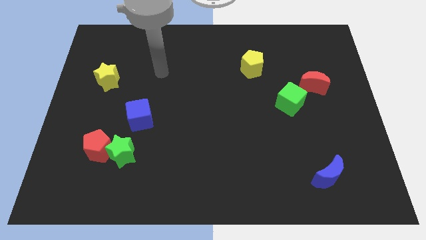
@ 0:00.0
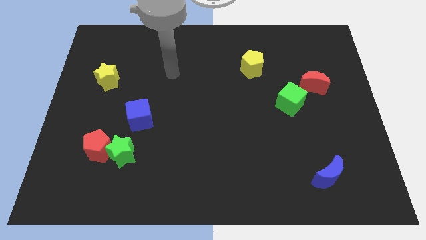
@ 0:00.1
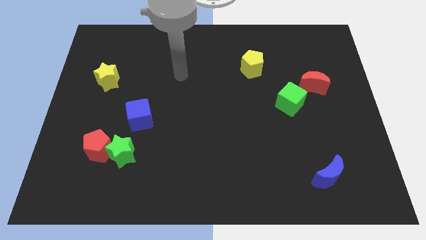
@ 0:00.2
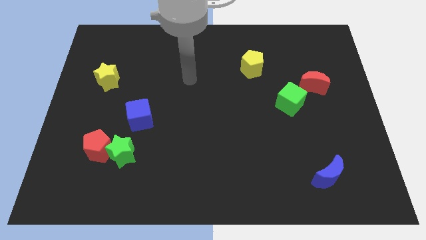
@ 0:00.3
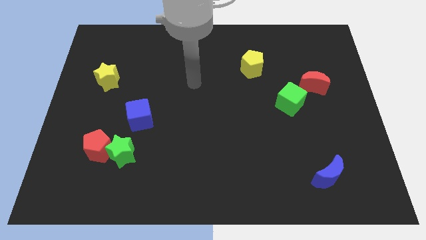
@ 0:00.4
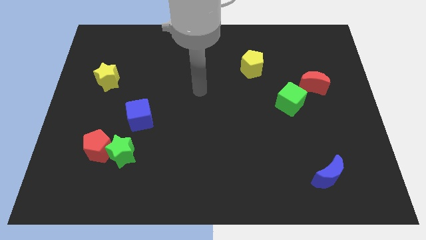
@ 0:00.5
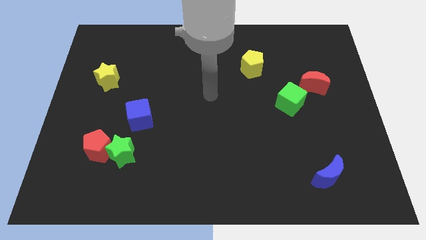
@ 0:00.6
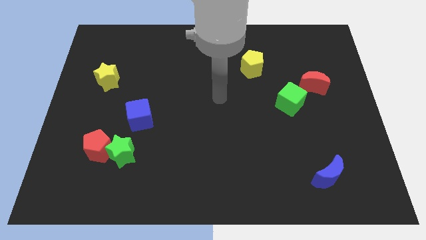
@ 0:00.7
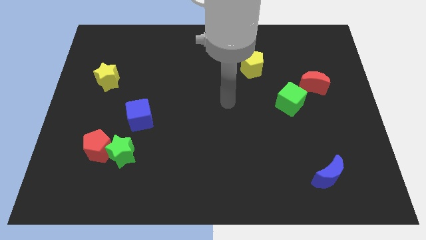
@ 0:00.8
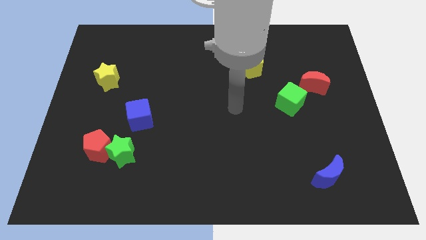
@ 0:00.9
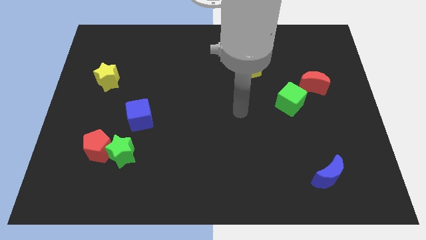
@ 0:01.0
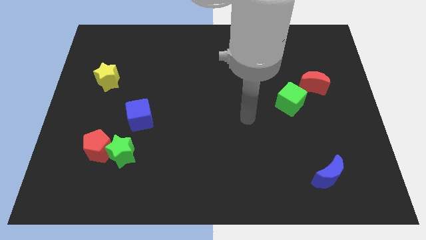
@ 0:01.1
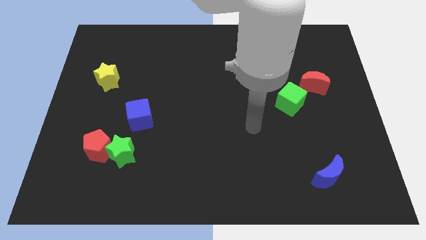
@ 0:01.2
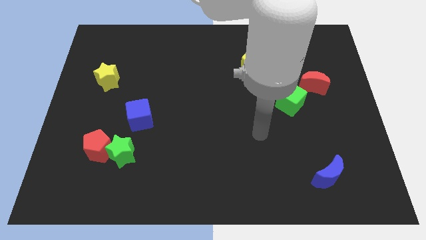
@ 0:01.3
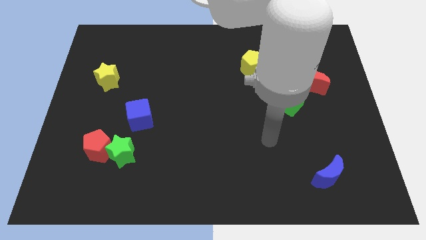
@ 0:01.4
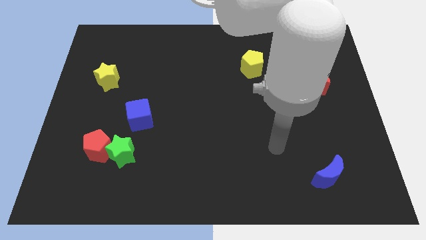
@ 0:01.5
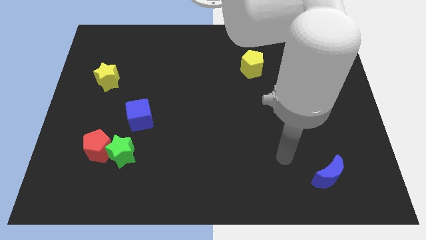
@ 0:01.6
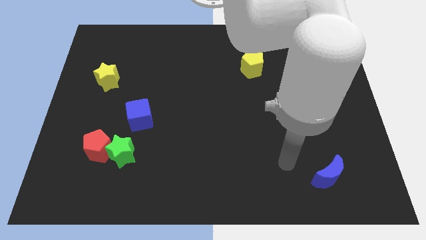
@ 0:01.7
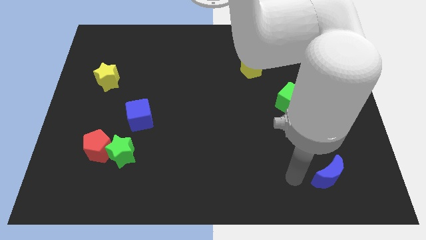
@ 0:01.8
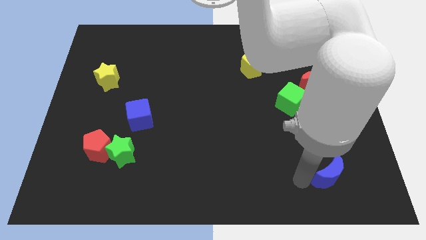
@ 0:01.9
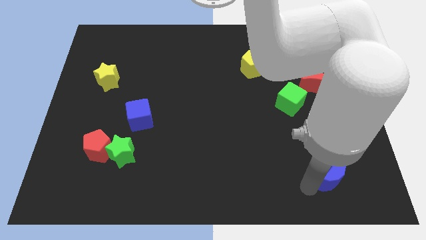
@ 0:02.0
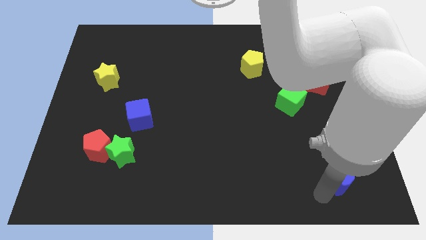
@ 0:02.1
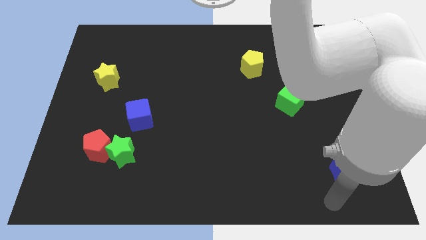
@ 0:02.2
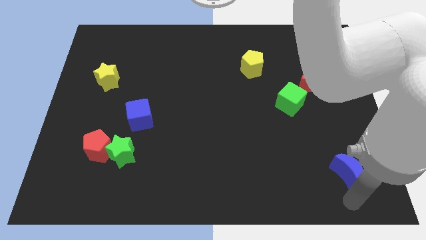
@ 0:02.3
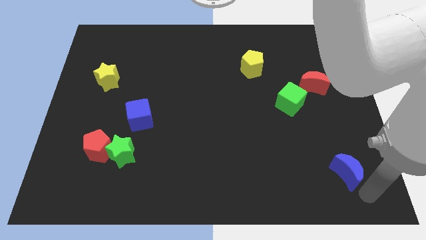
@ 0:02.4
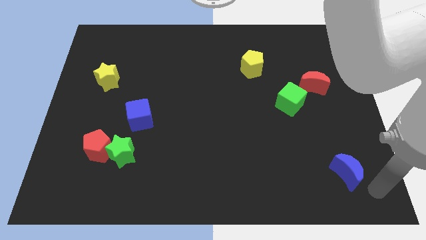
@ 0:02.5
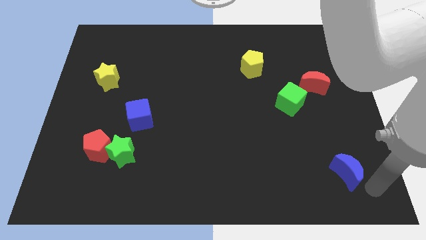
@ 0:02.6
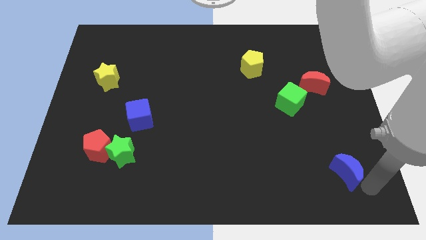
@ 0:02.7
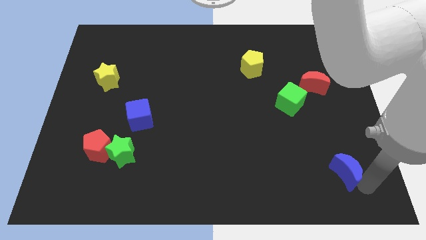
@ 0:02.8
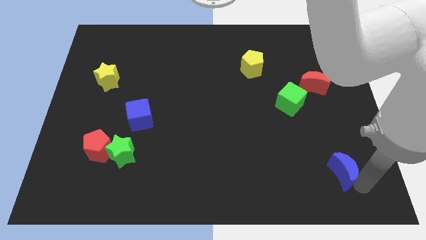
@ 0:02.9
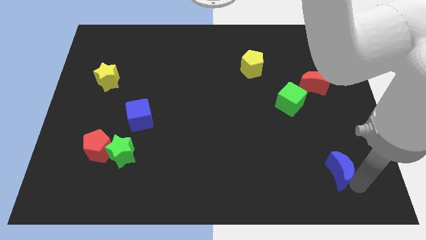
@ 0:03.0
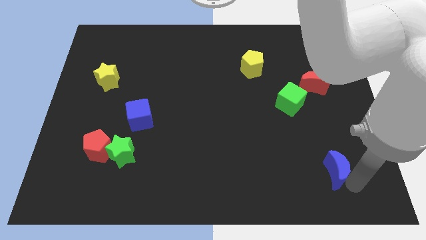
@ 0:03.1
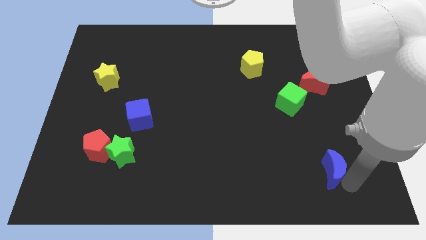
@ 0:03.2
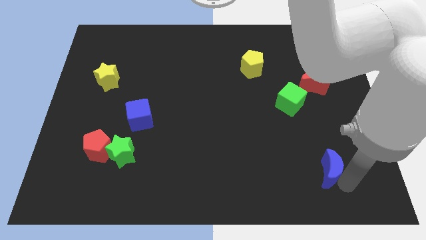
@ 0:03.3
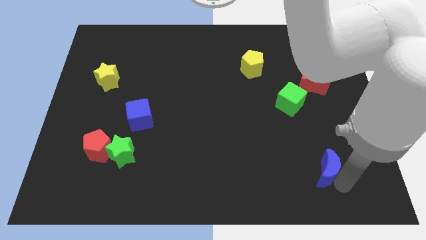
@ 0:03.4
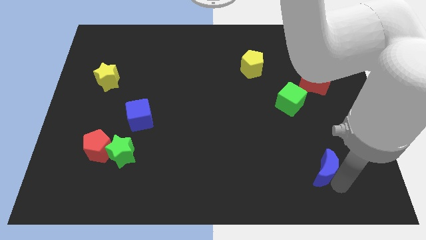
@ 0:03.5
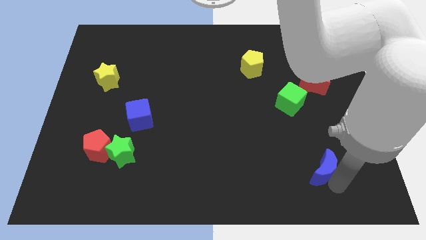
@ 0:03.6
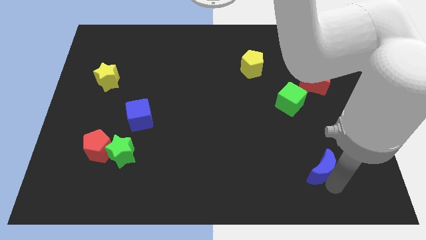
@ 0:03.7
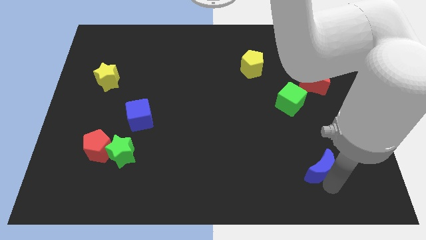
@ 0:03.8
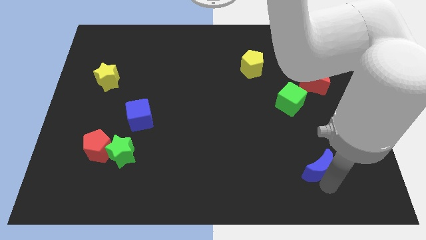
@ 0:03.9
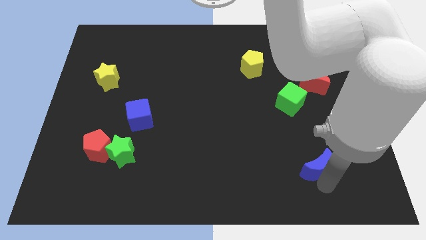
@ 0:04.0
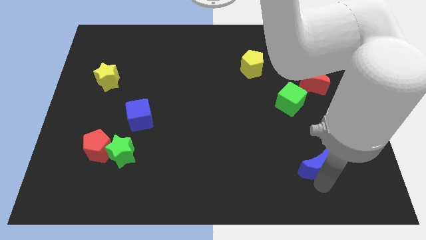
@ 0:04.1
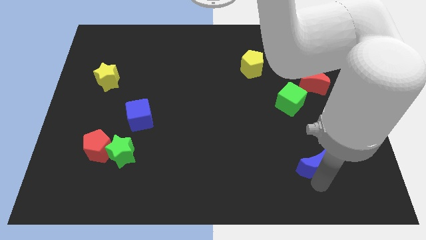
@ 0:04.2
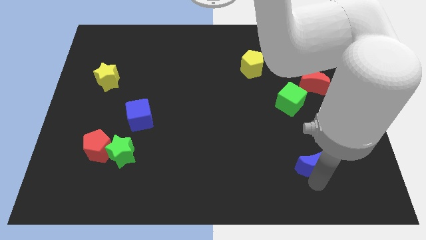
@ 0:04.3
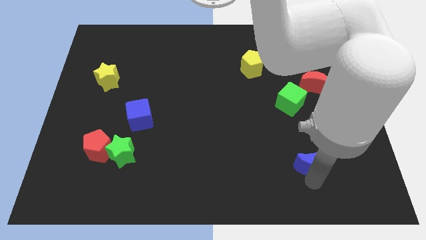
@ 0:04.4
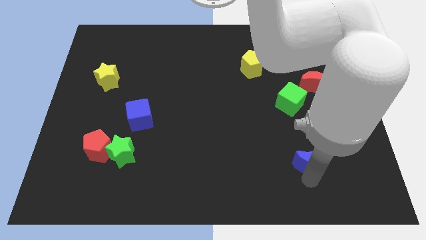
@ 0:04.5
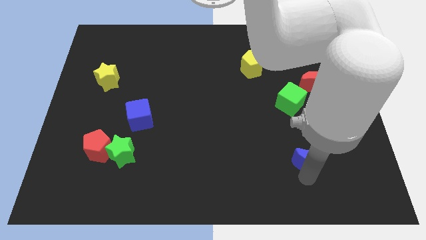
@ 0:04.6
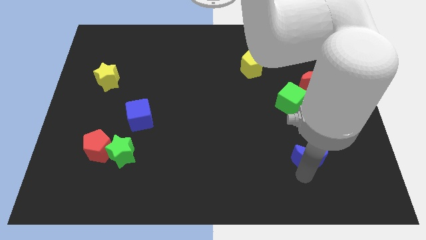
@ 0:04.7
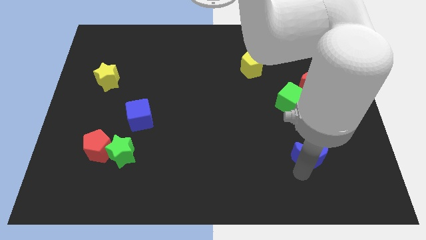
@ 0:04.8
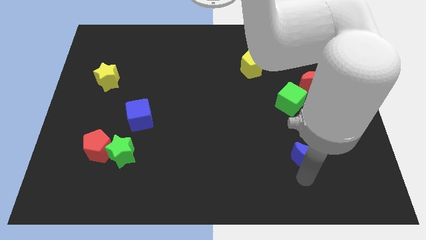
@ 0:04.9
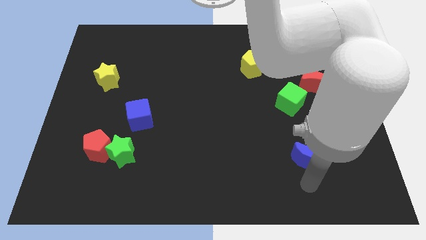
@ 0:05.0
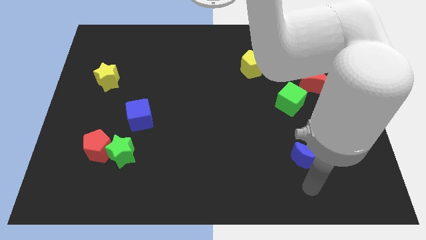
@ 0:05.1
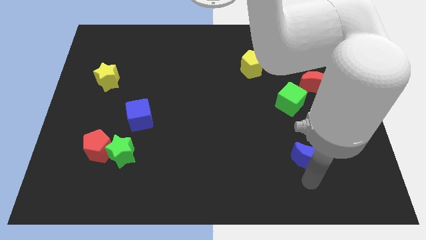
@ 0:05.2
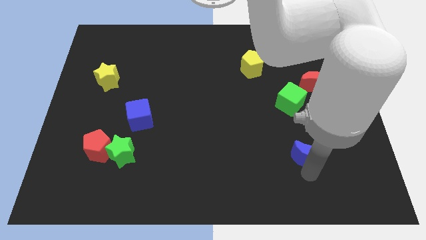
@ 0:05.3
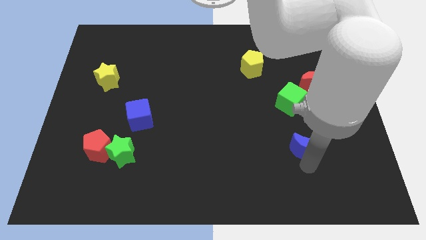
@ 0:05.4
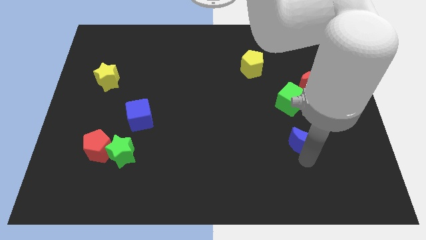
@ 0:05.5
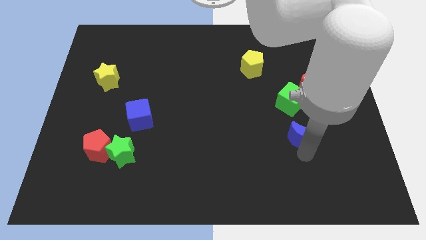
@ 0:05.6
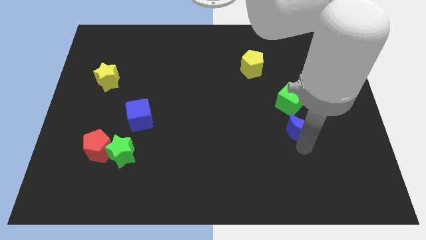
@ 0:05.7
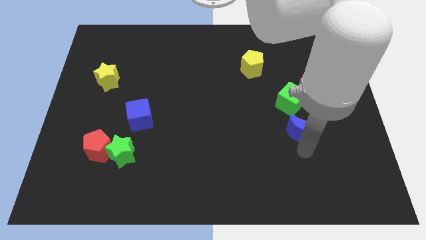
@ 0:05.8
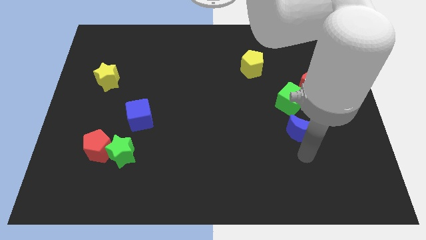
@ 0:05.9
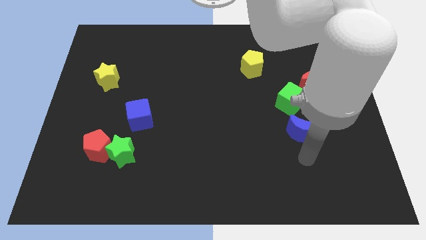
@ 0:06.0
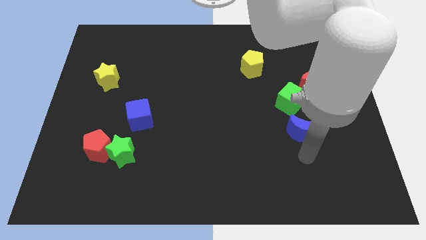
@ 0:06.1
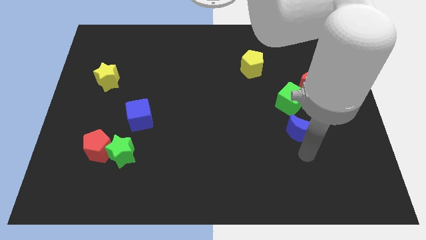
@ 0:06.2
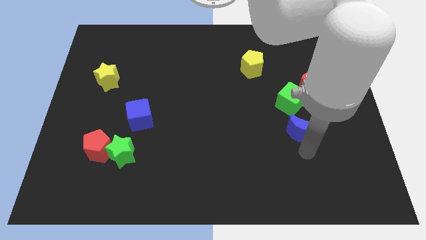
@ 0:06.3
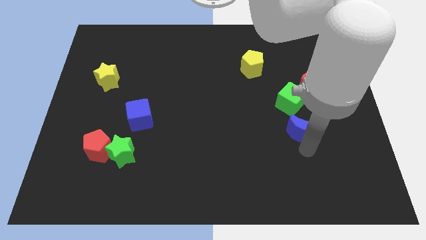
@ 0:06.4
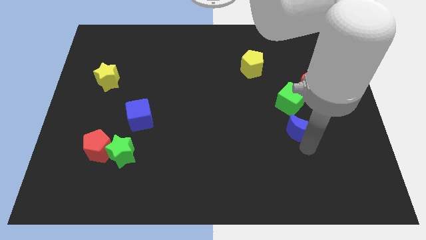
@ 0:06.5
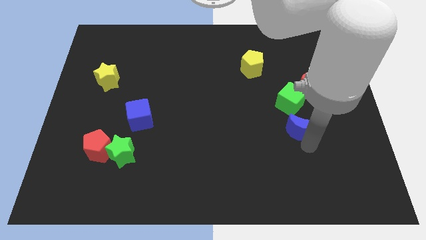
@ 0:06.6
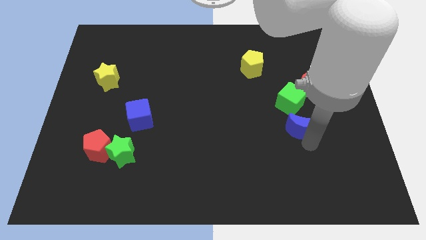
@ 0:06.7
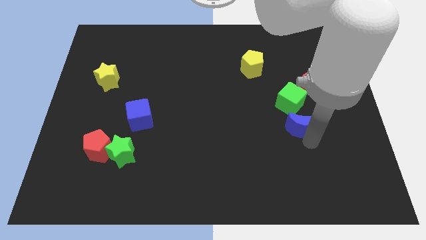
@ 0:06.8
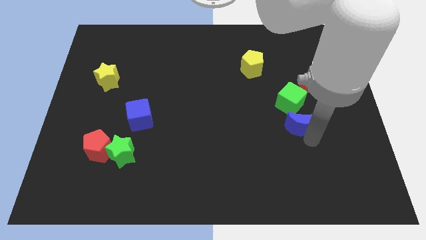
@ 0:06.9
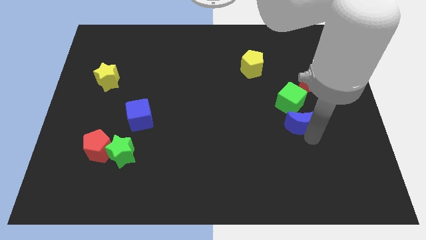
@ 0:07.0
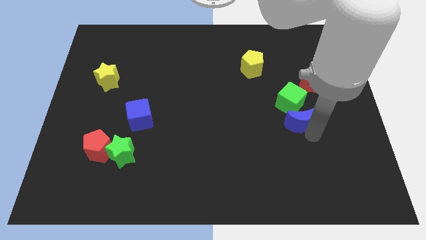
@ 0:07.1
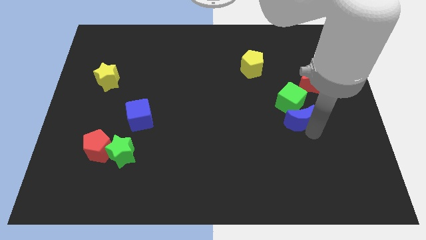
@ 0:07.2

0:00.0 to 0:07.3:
put the blue moon next to the green cube
